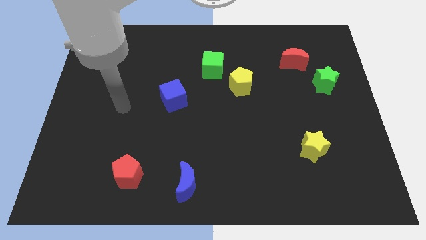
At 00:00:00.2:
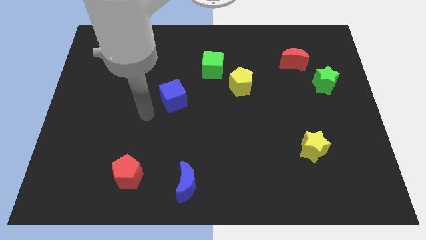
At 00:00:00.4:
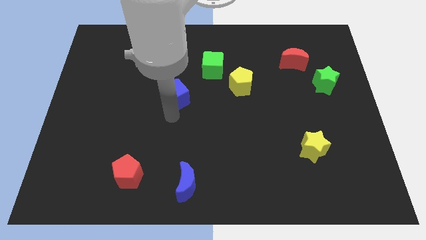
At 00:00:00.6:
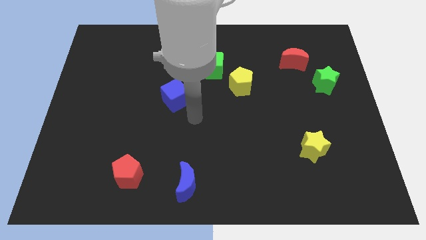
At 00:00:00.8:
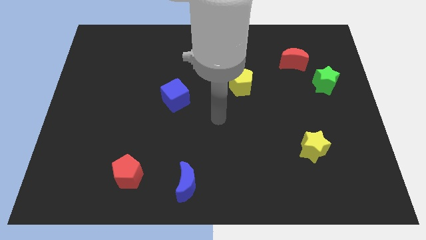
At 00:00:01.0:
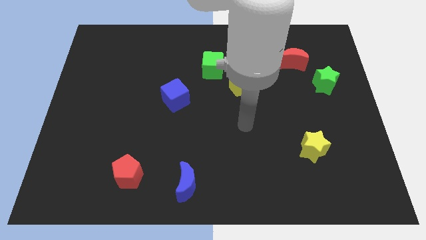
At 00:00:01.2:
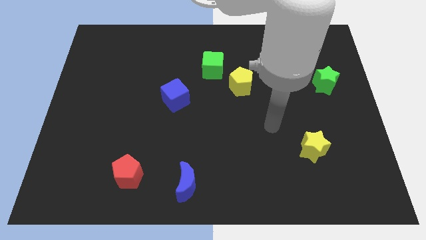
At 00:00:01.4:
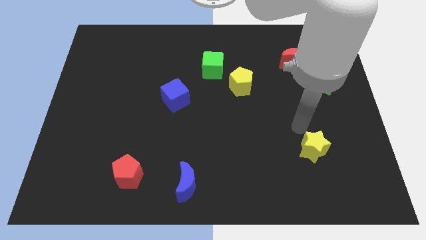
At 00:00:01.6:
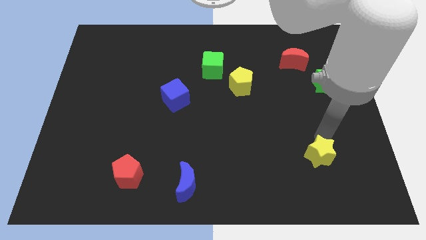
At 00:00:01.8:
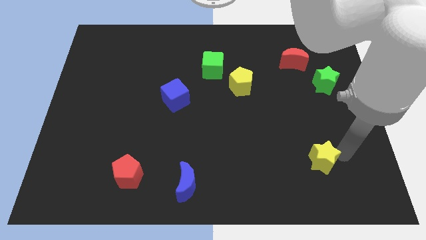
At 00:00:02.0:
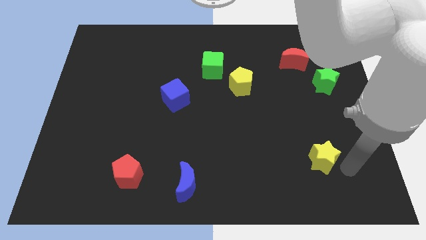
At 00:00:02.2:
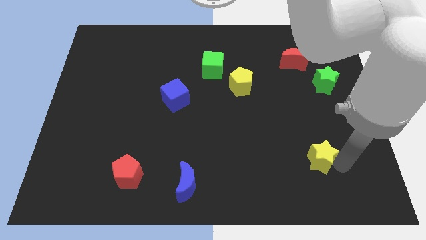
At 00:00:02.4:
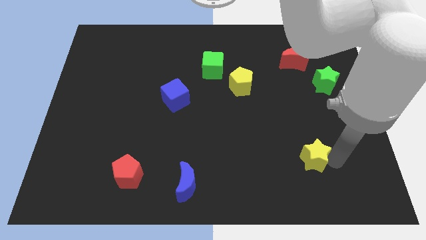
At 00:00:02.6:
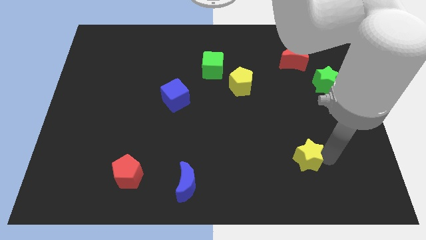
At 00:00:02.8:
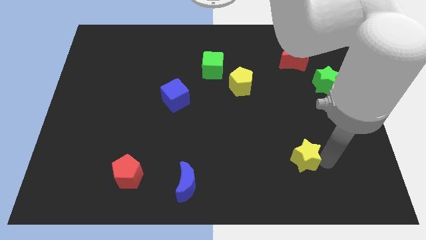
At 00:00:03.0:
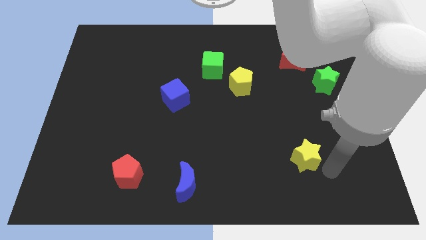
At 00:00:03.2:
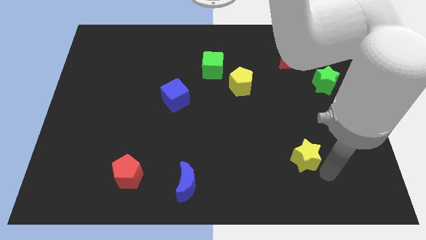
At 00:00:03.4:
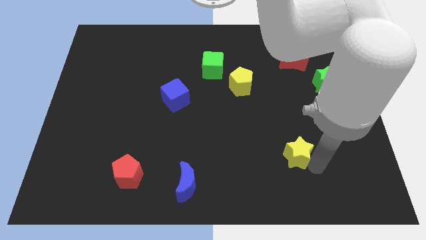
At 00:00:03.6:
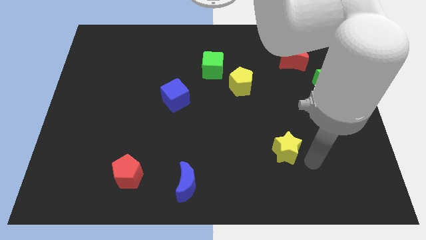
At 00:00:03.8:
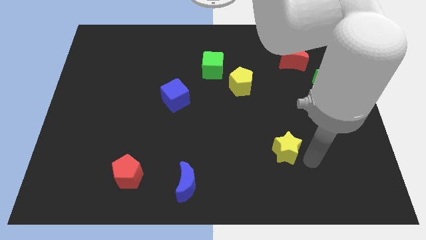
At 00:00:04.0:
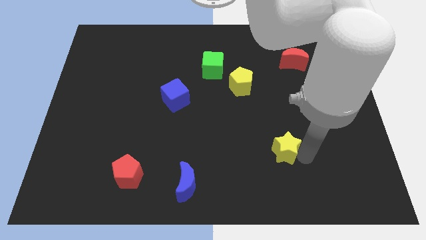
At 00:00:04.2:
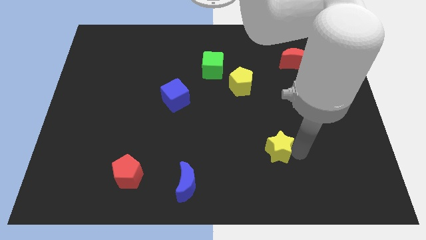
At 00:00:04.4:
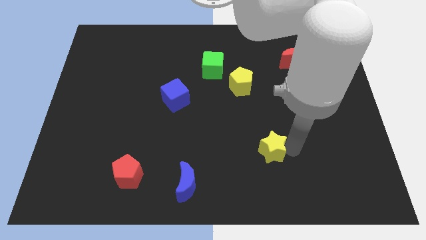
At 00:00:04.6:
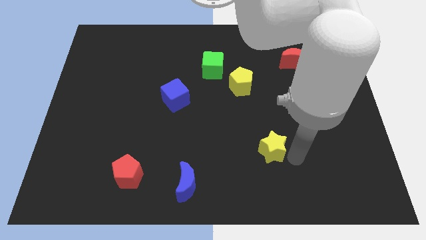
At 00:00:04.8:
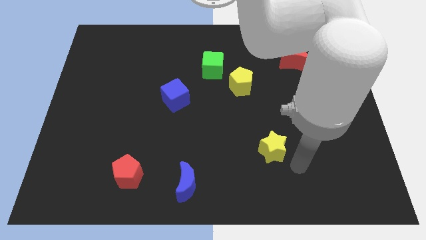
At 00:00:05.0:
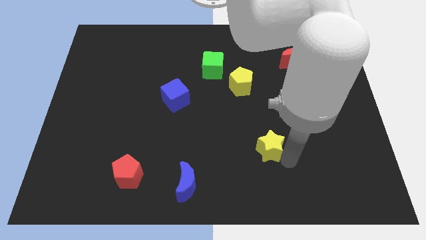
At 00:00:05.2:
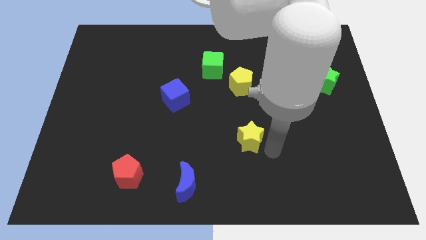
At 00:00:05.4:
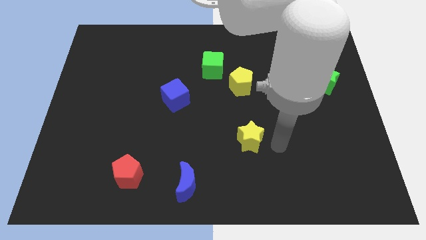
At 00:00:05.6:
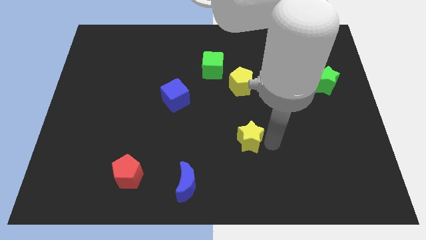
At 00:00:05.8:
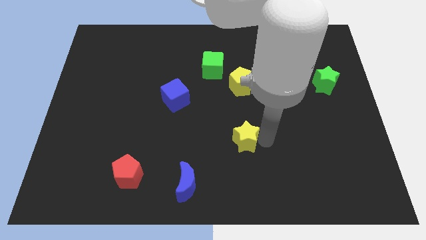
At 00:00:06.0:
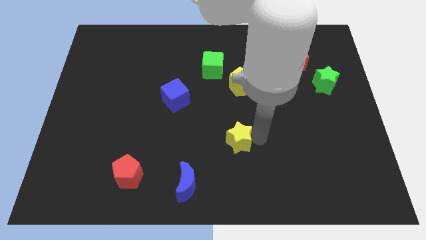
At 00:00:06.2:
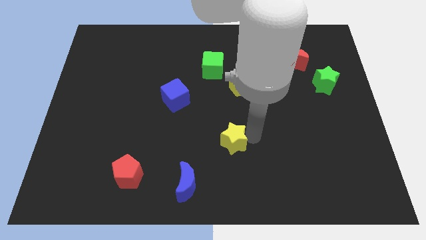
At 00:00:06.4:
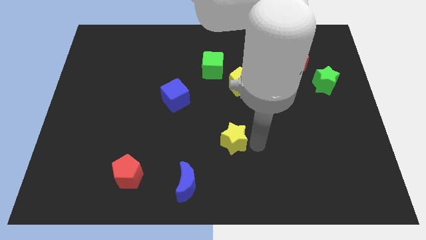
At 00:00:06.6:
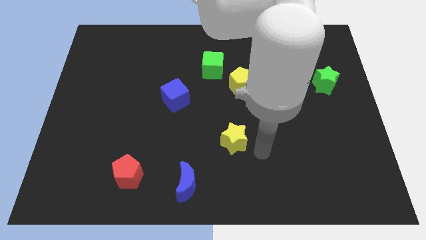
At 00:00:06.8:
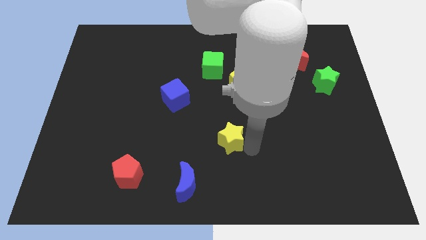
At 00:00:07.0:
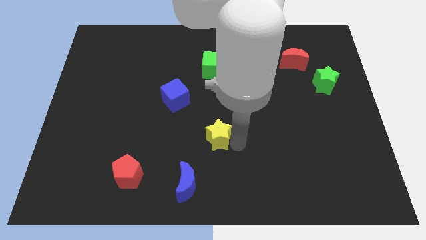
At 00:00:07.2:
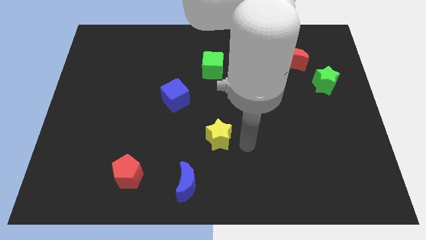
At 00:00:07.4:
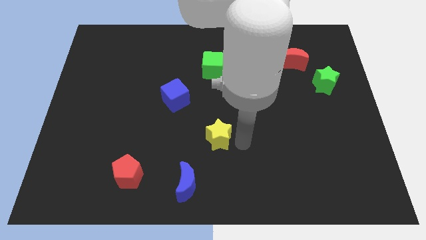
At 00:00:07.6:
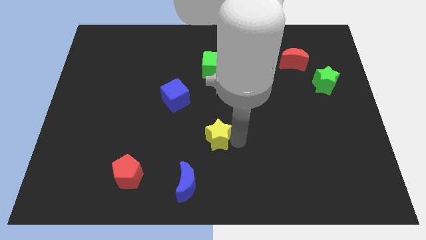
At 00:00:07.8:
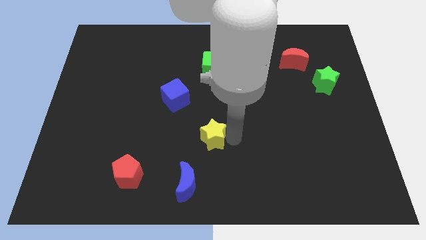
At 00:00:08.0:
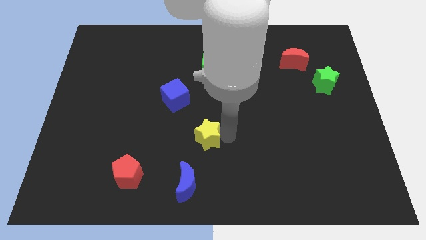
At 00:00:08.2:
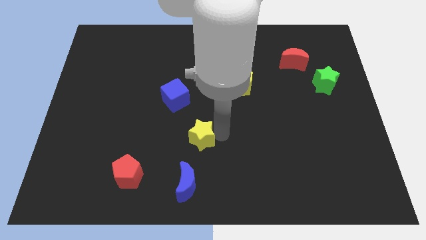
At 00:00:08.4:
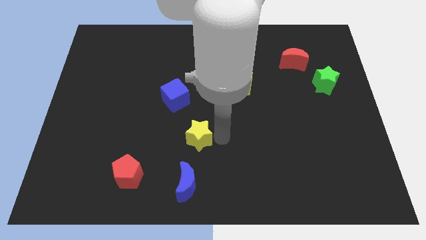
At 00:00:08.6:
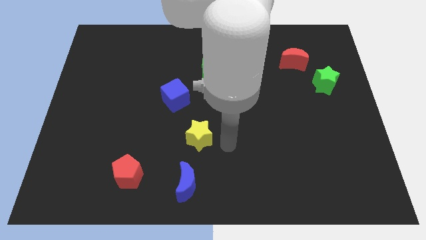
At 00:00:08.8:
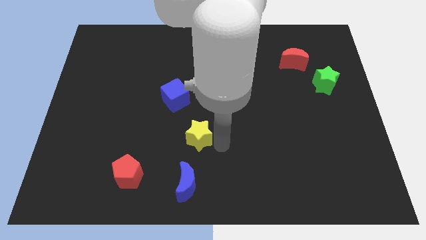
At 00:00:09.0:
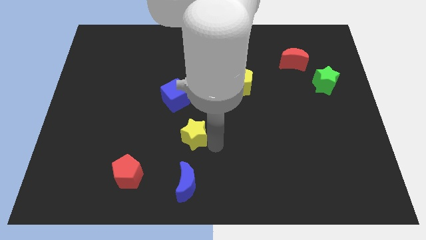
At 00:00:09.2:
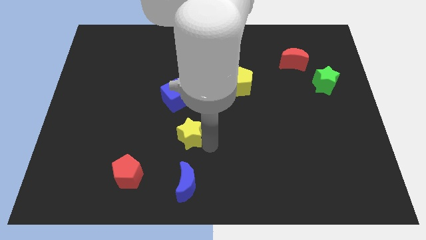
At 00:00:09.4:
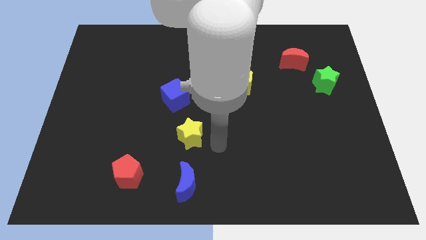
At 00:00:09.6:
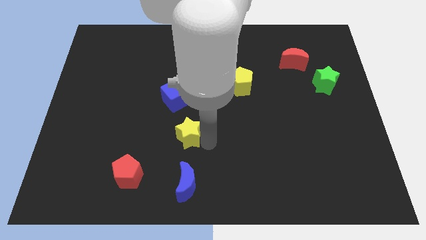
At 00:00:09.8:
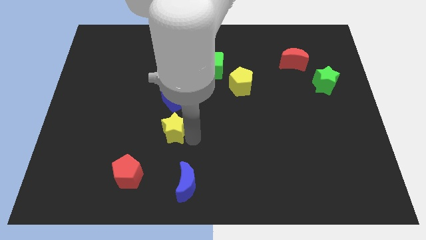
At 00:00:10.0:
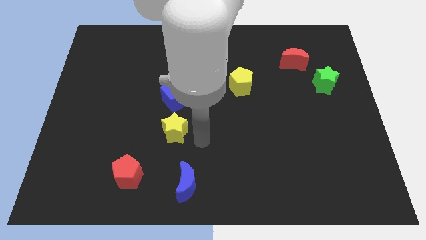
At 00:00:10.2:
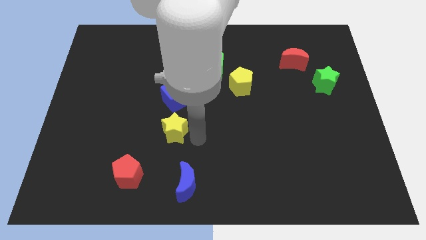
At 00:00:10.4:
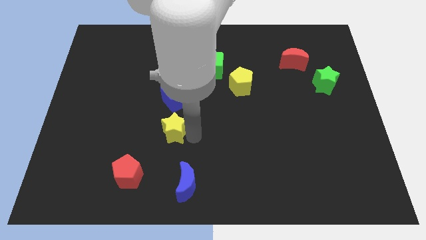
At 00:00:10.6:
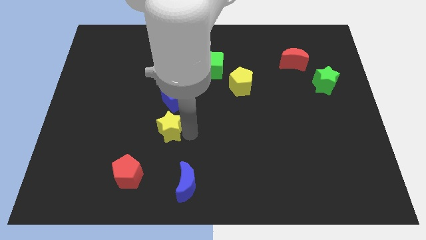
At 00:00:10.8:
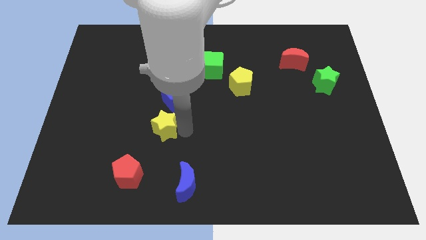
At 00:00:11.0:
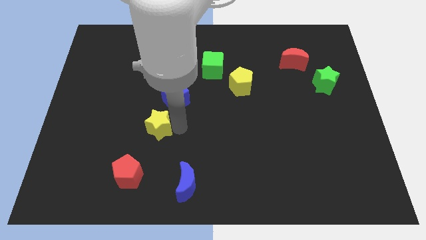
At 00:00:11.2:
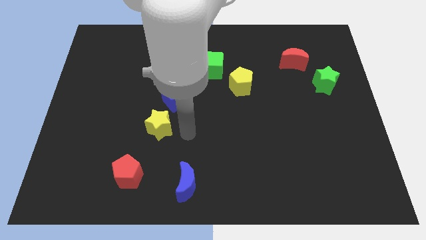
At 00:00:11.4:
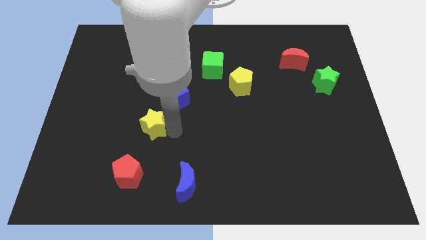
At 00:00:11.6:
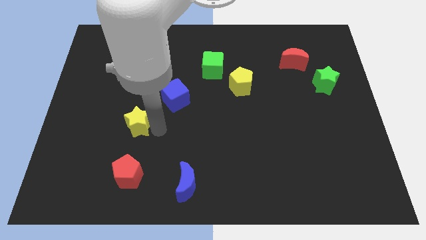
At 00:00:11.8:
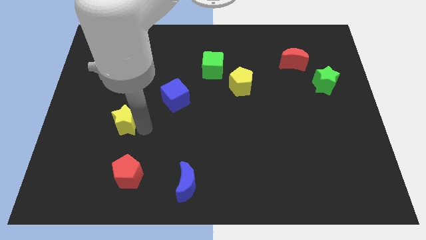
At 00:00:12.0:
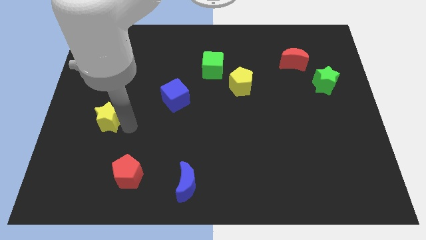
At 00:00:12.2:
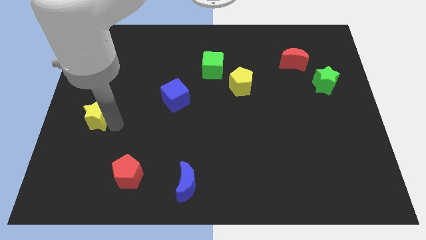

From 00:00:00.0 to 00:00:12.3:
put the yellow star to the left side

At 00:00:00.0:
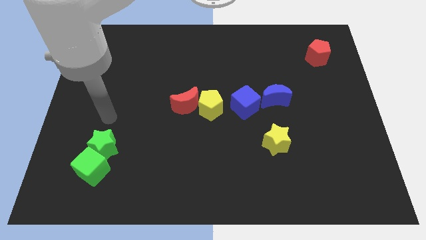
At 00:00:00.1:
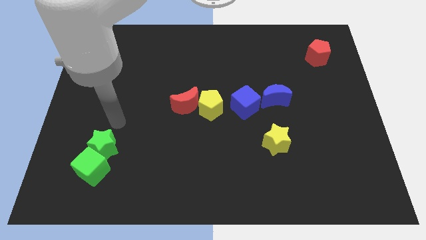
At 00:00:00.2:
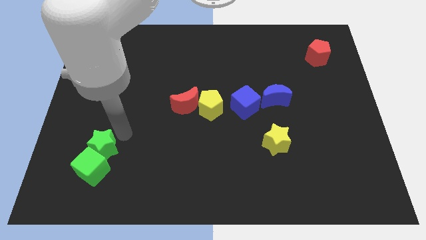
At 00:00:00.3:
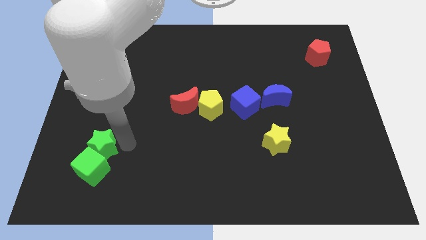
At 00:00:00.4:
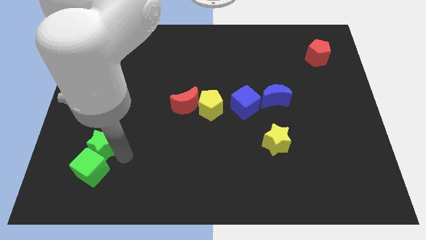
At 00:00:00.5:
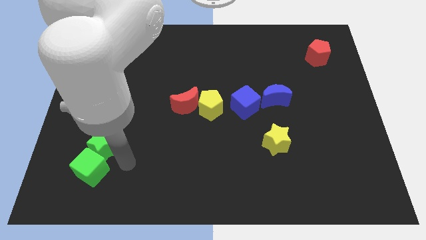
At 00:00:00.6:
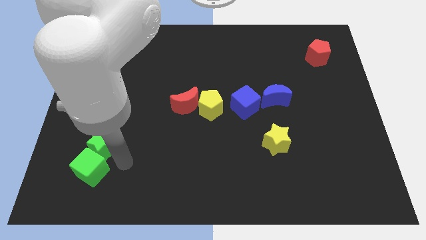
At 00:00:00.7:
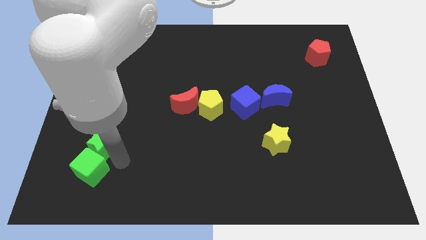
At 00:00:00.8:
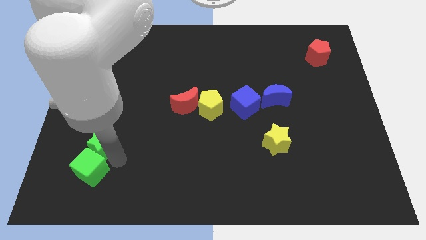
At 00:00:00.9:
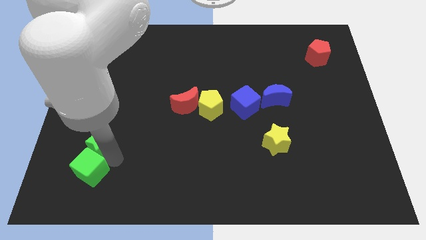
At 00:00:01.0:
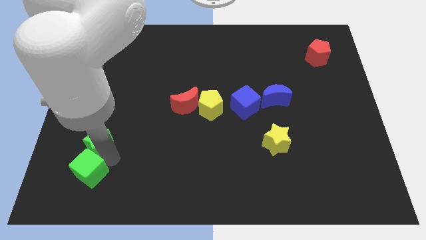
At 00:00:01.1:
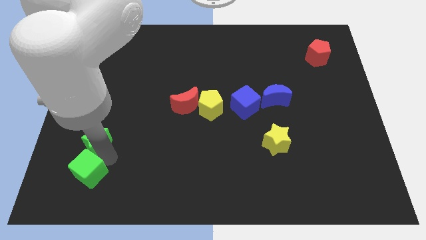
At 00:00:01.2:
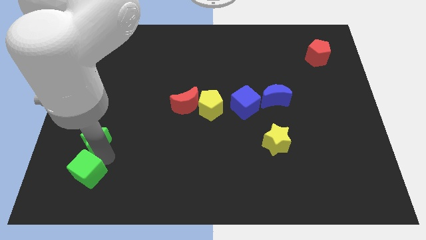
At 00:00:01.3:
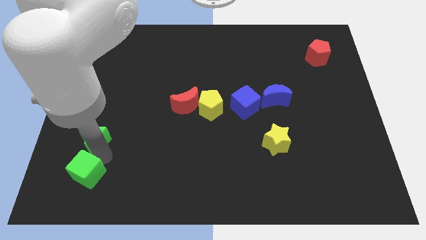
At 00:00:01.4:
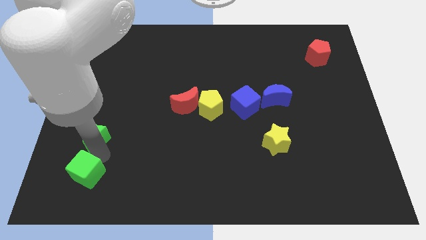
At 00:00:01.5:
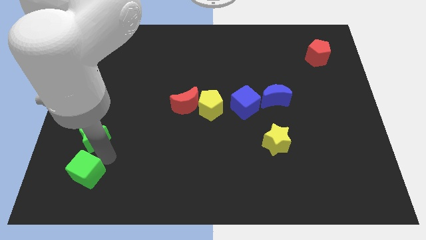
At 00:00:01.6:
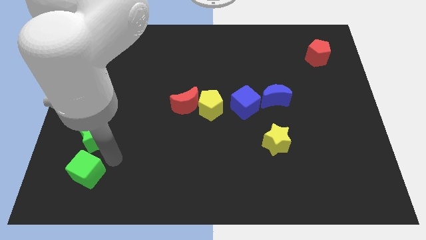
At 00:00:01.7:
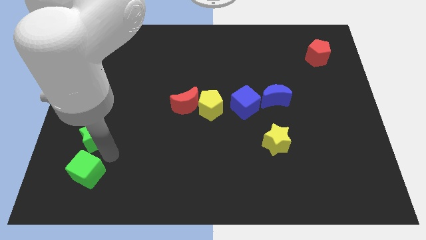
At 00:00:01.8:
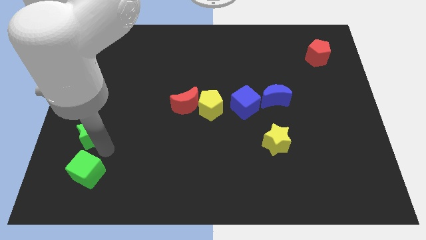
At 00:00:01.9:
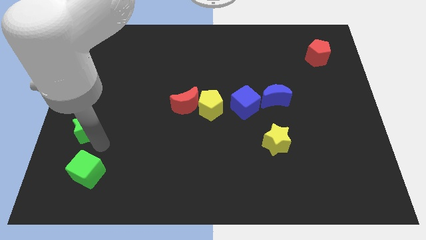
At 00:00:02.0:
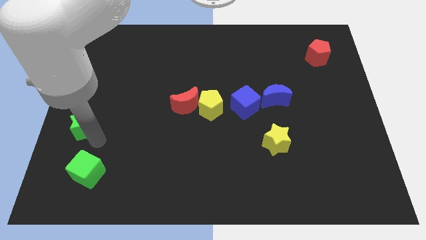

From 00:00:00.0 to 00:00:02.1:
put the green star to the left side of the board
